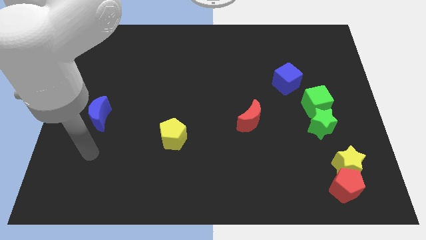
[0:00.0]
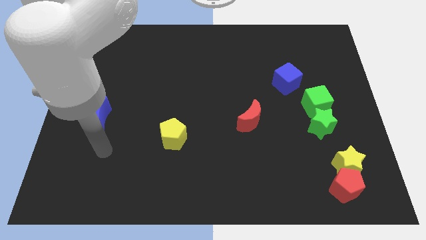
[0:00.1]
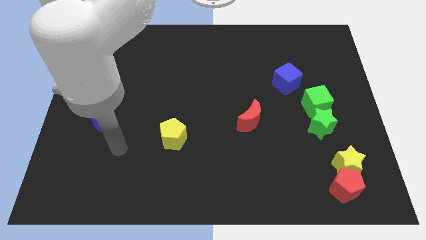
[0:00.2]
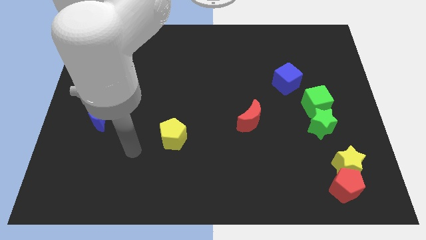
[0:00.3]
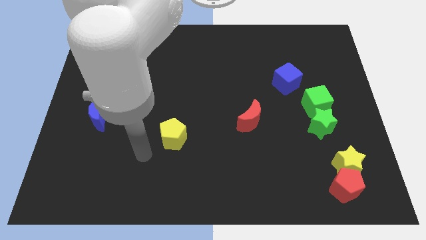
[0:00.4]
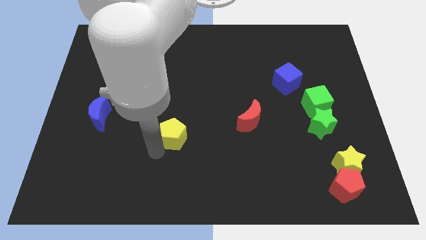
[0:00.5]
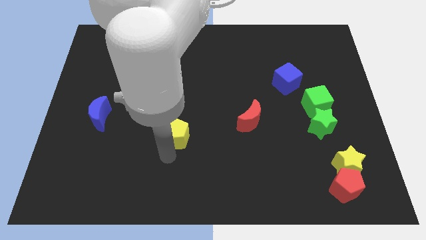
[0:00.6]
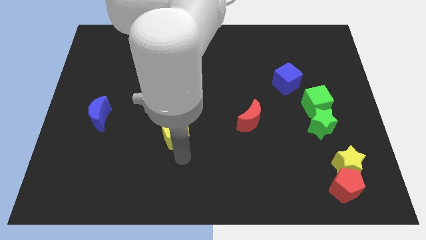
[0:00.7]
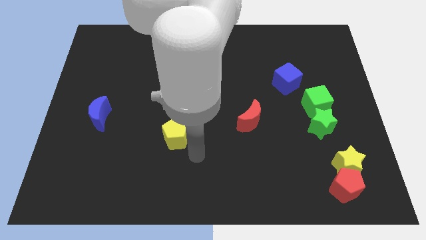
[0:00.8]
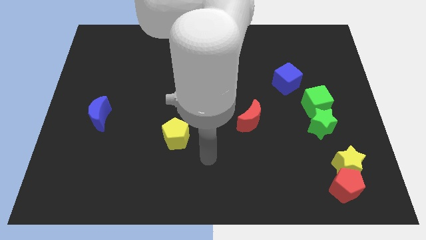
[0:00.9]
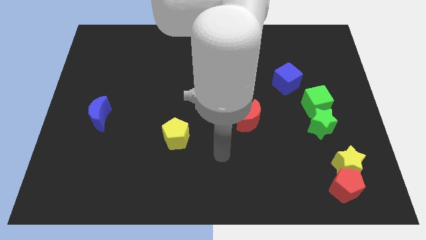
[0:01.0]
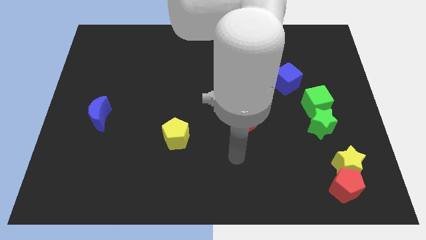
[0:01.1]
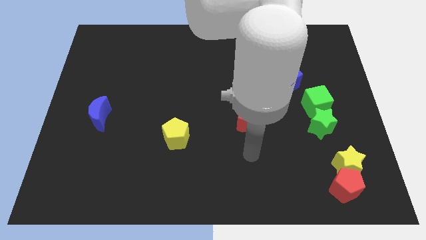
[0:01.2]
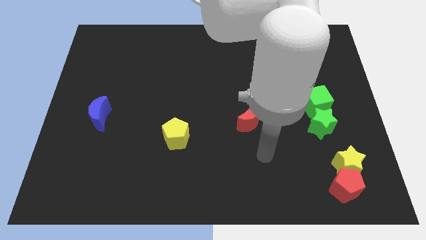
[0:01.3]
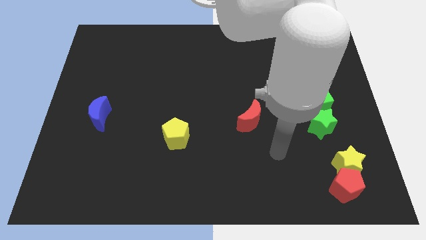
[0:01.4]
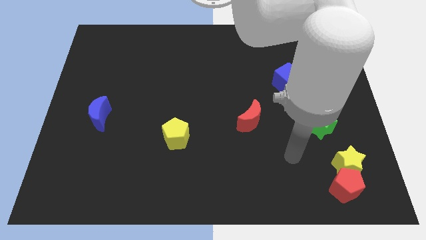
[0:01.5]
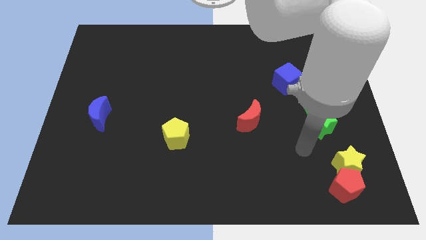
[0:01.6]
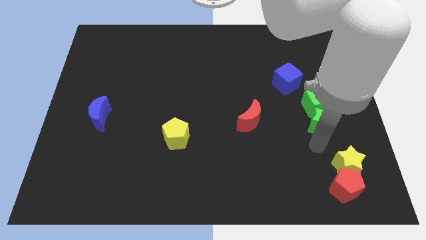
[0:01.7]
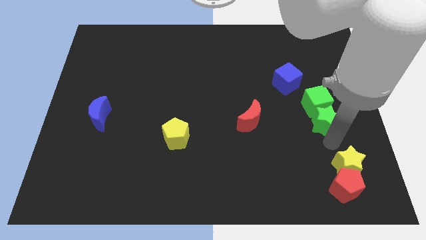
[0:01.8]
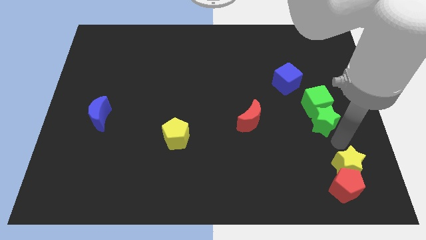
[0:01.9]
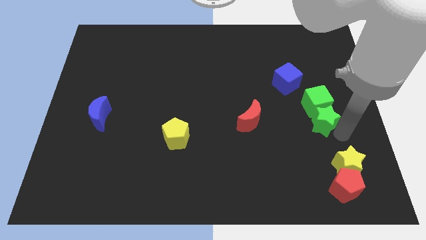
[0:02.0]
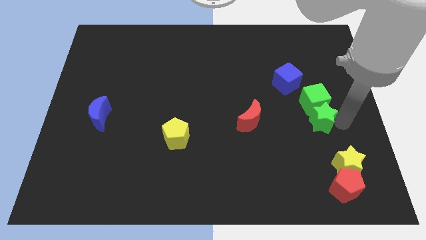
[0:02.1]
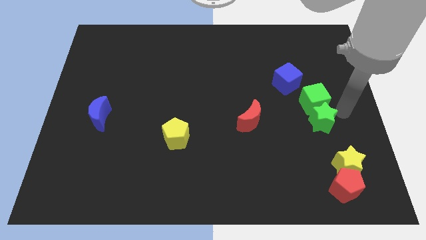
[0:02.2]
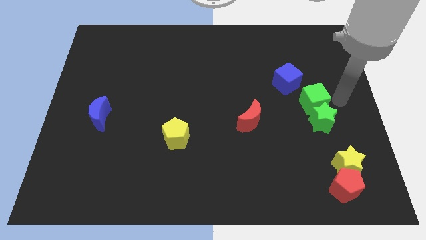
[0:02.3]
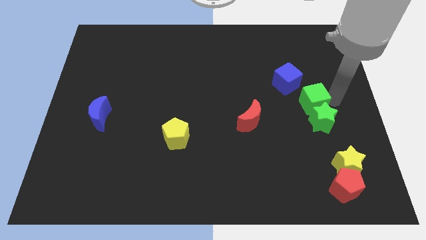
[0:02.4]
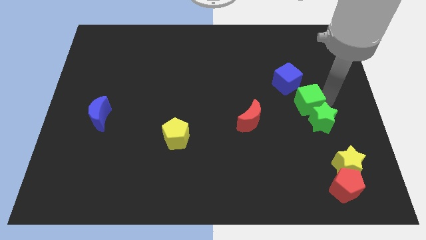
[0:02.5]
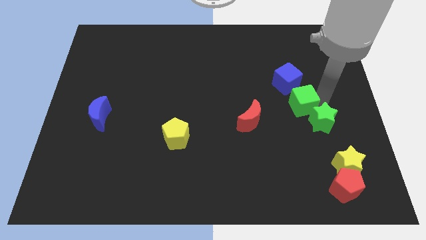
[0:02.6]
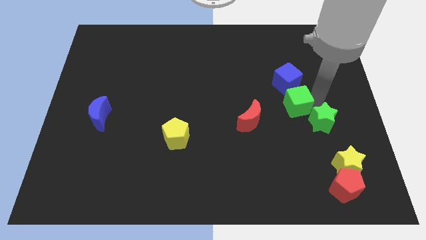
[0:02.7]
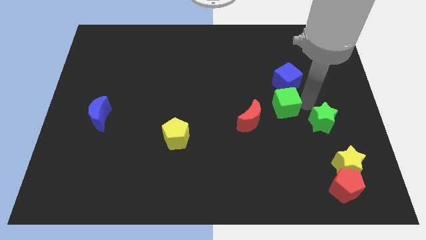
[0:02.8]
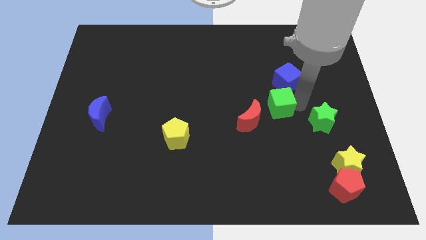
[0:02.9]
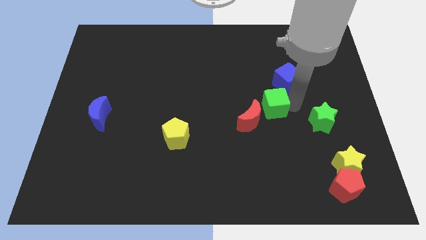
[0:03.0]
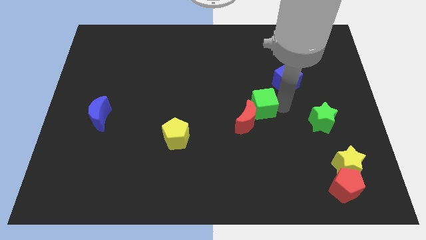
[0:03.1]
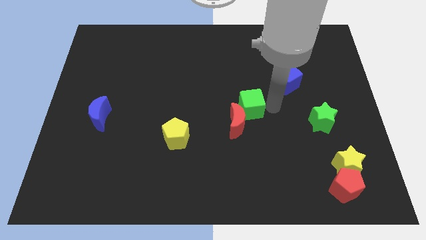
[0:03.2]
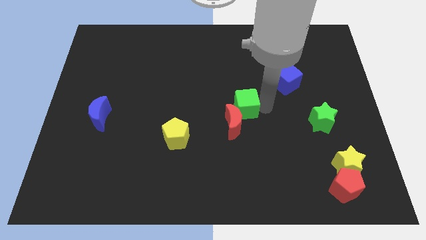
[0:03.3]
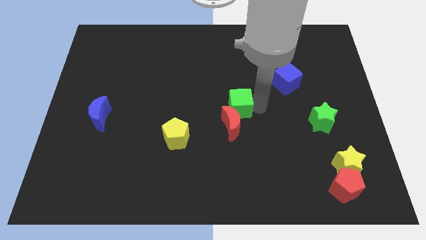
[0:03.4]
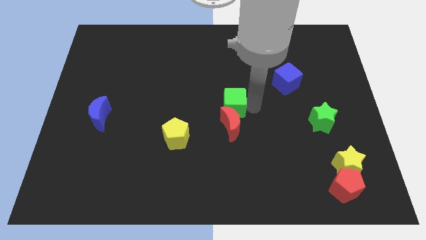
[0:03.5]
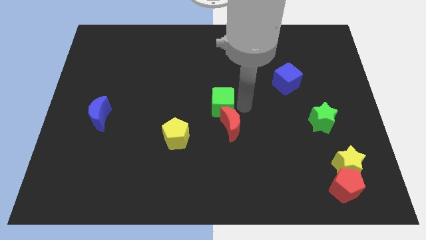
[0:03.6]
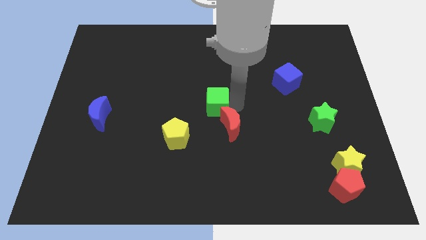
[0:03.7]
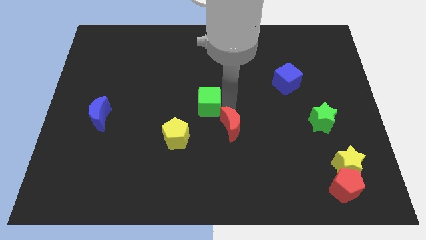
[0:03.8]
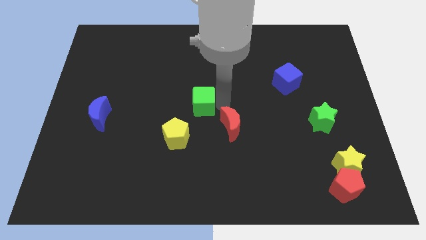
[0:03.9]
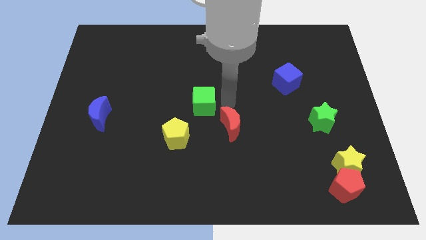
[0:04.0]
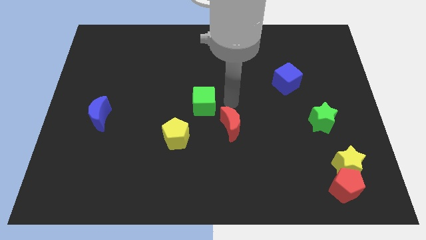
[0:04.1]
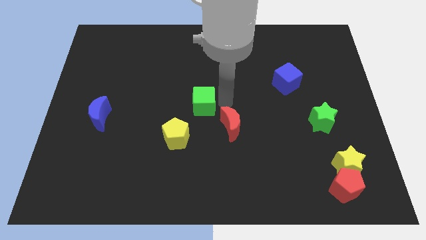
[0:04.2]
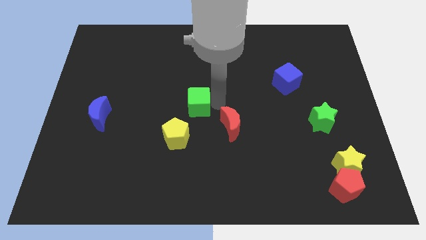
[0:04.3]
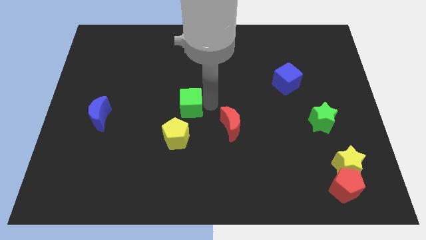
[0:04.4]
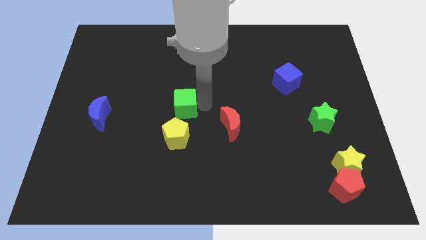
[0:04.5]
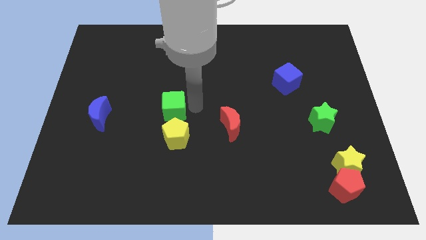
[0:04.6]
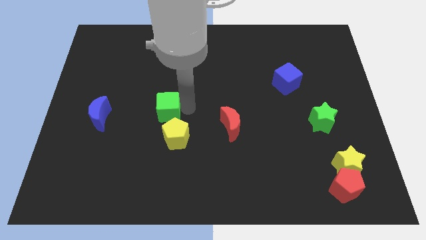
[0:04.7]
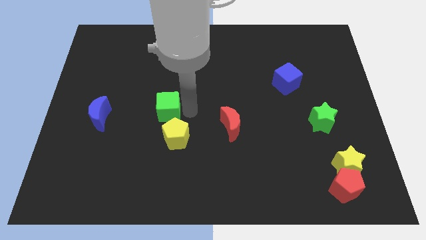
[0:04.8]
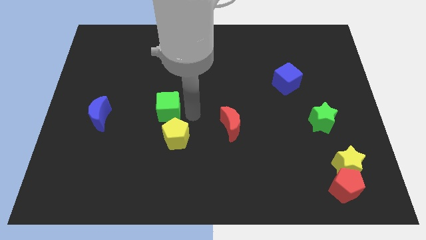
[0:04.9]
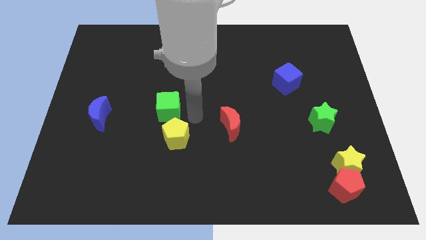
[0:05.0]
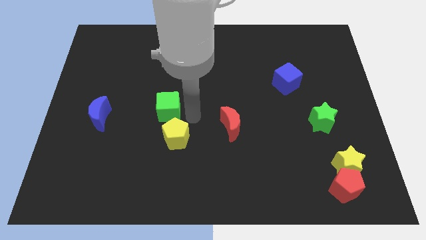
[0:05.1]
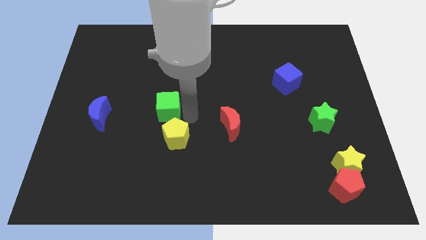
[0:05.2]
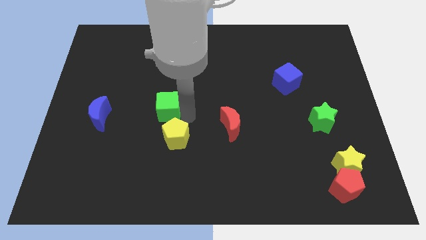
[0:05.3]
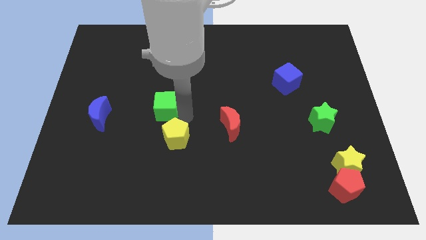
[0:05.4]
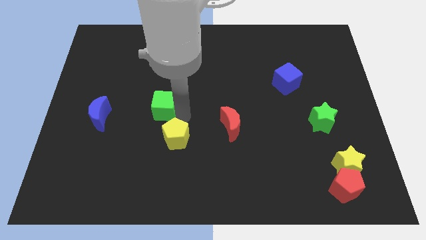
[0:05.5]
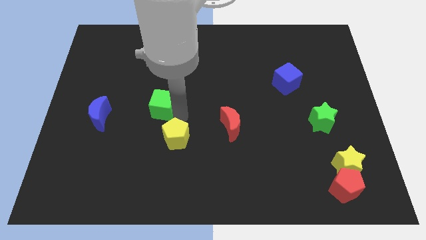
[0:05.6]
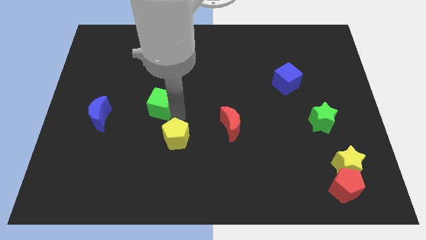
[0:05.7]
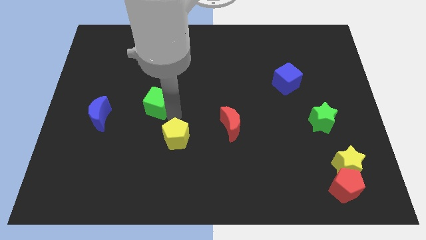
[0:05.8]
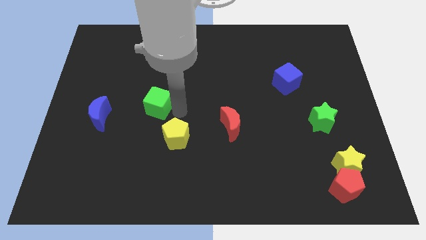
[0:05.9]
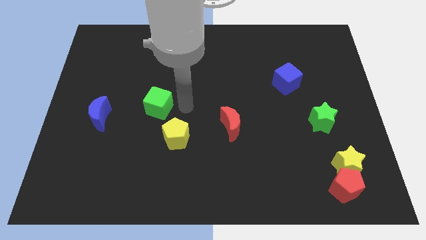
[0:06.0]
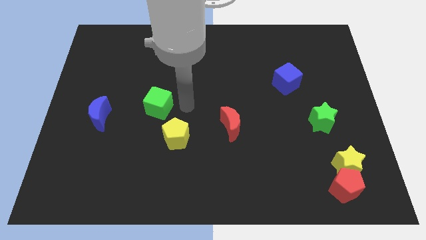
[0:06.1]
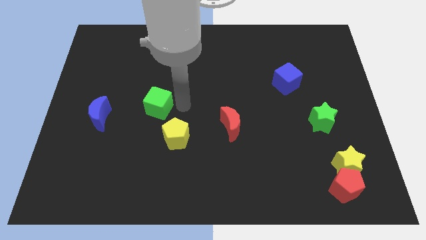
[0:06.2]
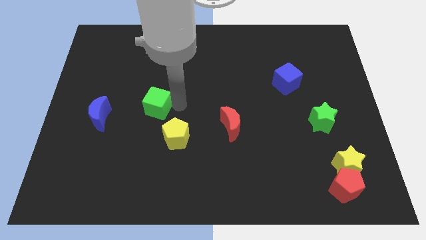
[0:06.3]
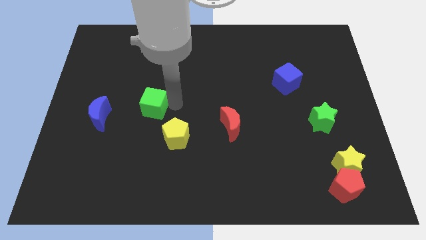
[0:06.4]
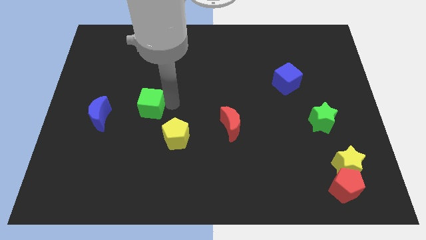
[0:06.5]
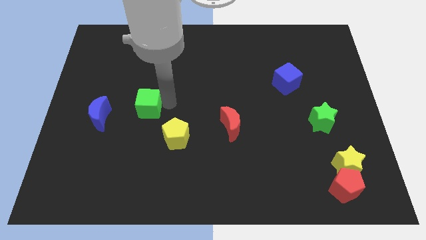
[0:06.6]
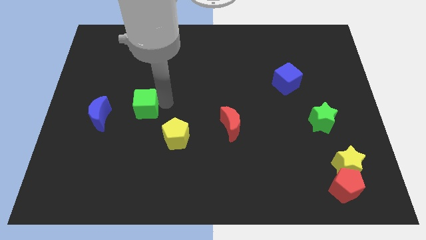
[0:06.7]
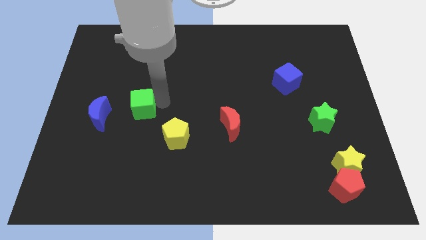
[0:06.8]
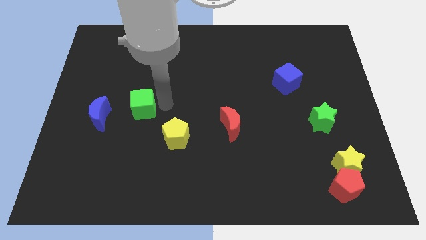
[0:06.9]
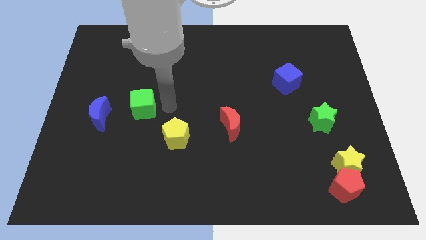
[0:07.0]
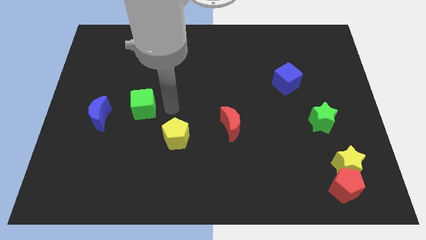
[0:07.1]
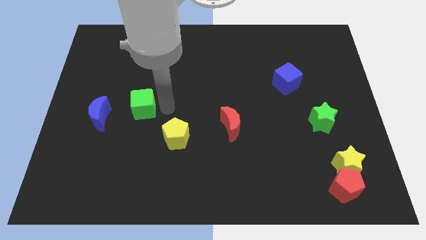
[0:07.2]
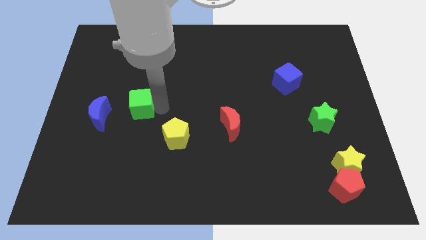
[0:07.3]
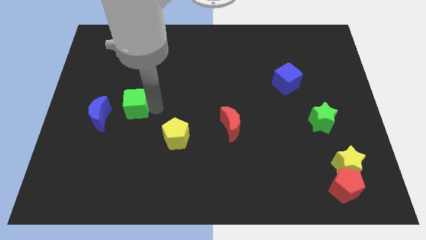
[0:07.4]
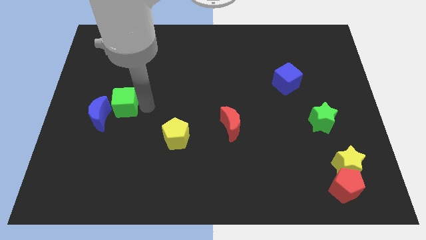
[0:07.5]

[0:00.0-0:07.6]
put the green cube towards the blue moon
